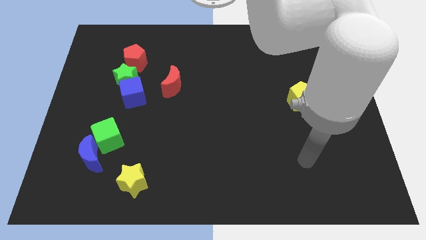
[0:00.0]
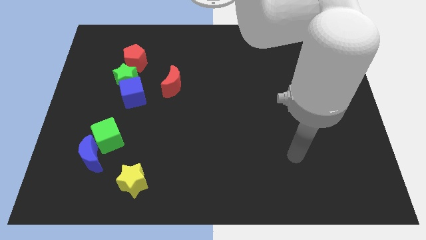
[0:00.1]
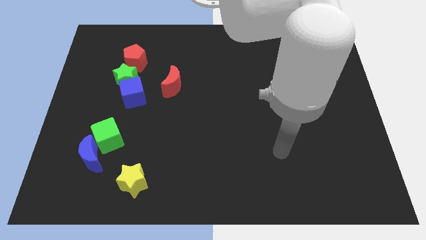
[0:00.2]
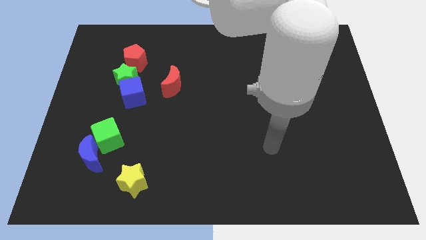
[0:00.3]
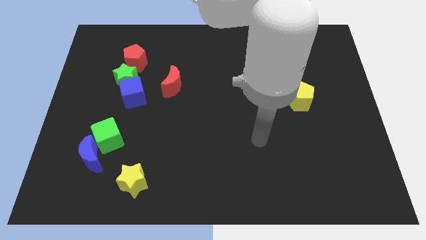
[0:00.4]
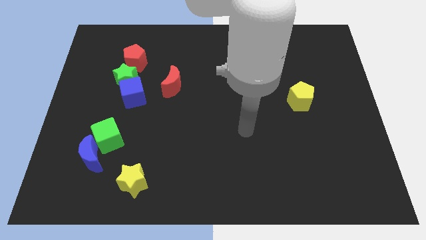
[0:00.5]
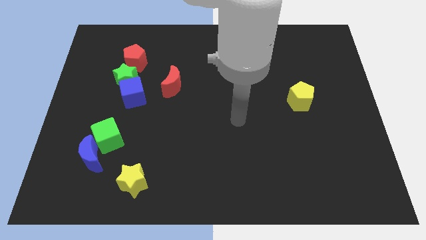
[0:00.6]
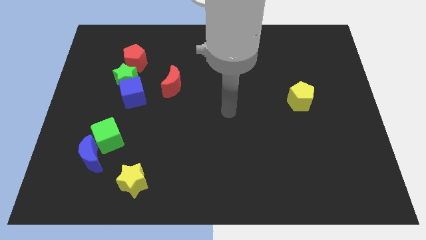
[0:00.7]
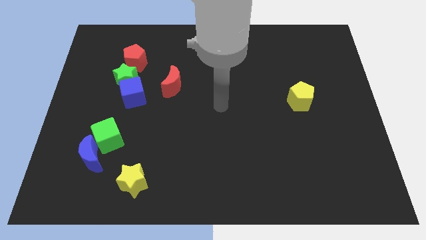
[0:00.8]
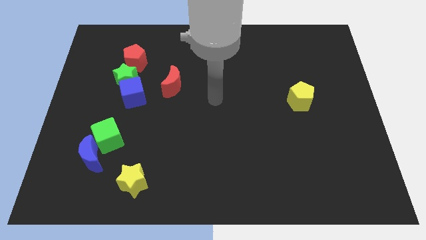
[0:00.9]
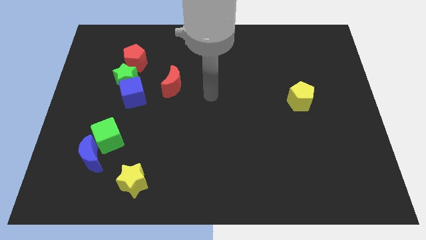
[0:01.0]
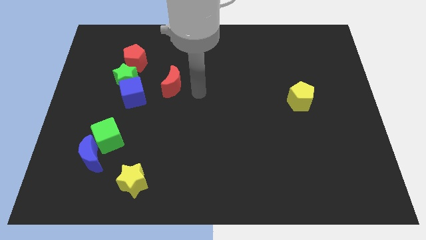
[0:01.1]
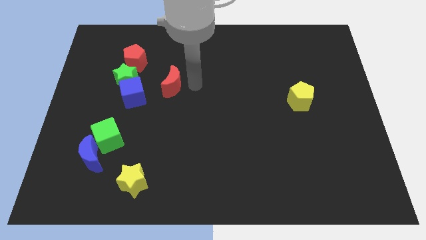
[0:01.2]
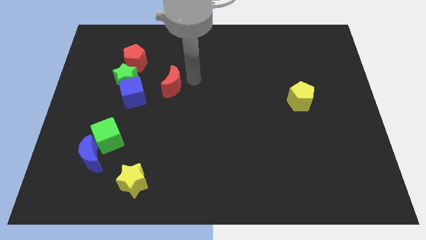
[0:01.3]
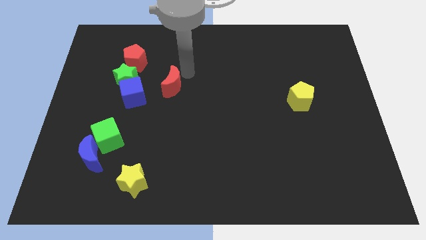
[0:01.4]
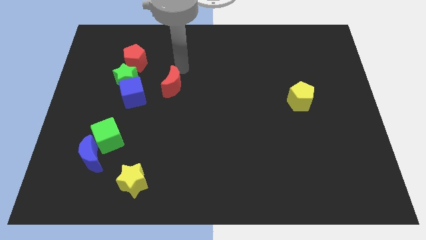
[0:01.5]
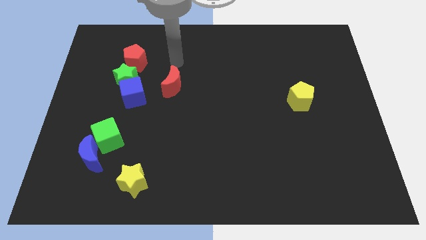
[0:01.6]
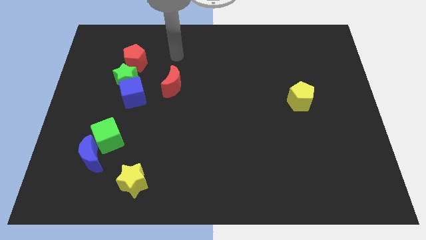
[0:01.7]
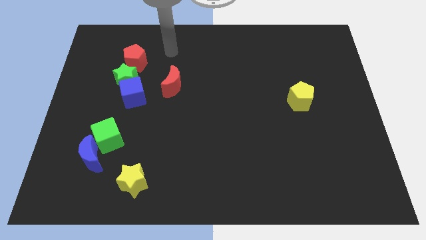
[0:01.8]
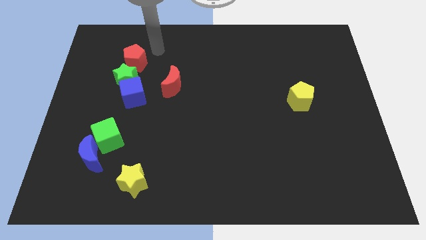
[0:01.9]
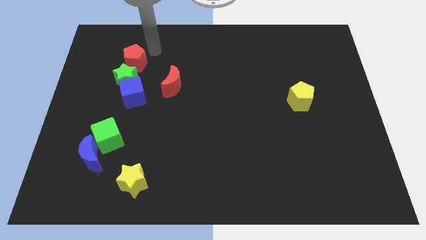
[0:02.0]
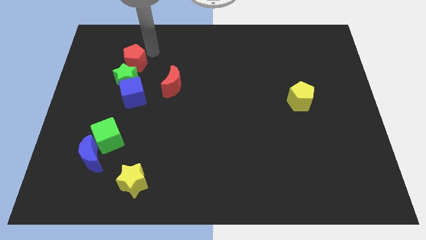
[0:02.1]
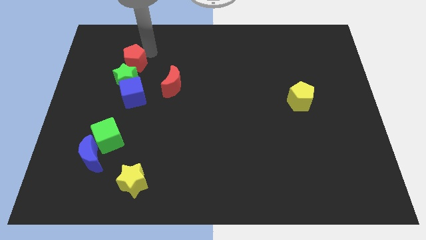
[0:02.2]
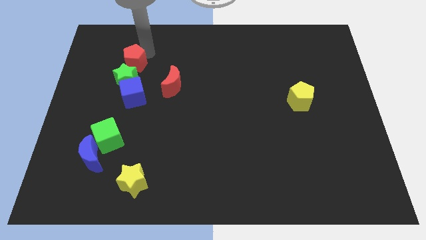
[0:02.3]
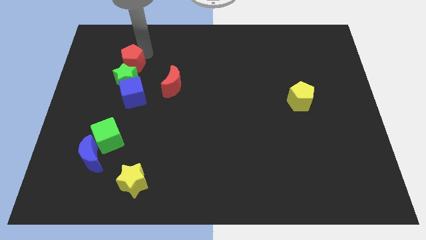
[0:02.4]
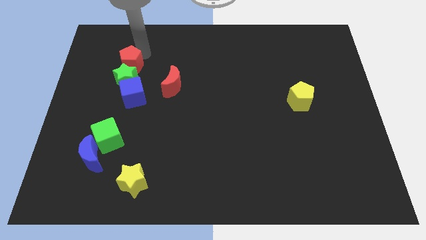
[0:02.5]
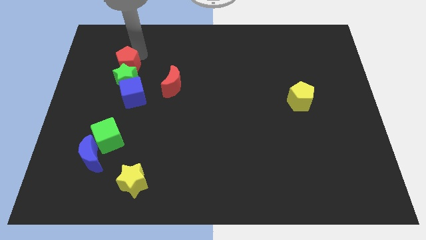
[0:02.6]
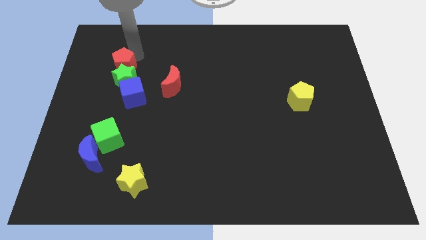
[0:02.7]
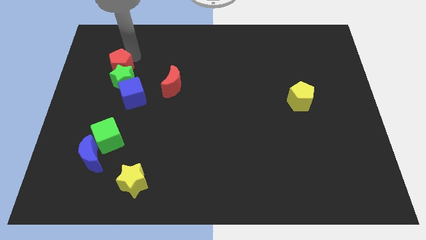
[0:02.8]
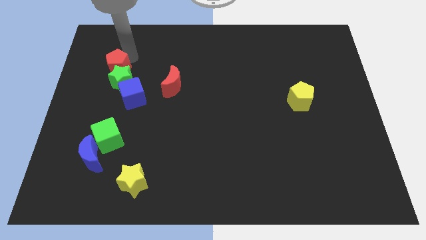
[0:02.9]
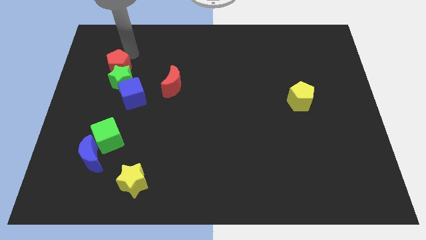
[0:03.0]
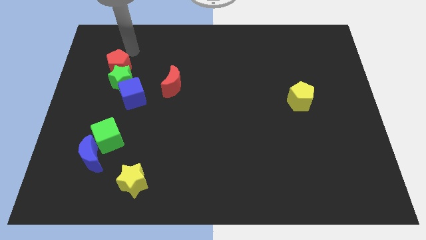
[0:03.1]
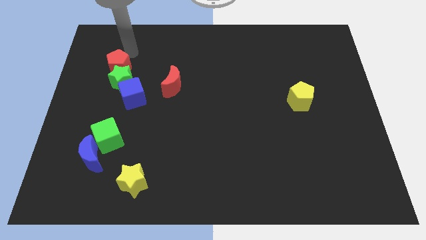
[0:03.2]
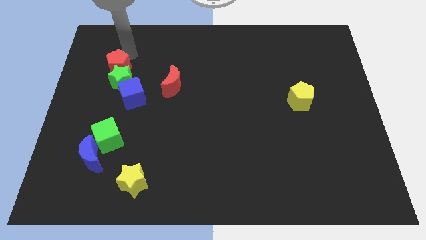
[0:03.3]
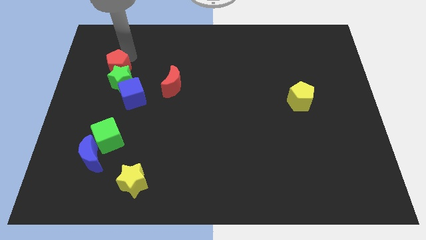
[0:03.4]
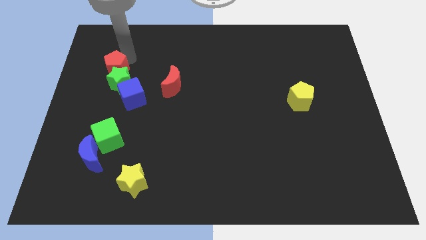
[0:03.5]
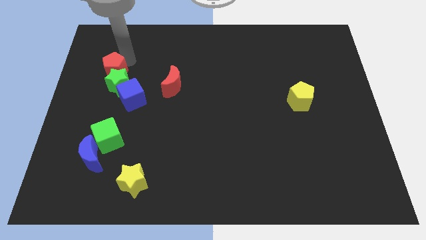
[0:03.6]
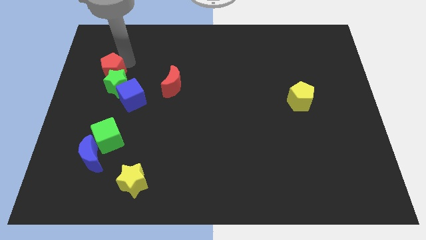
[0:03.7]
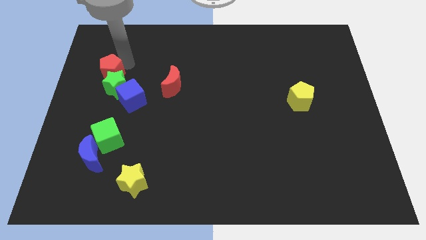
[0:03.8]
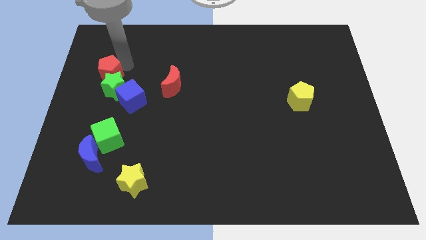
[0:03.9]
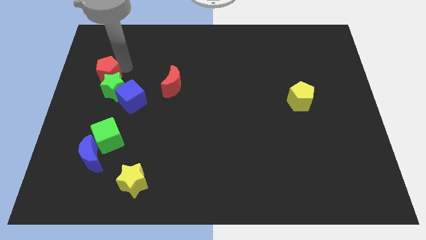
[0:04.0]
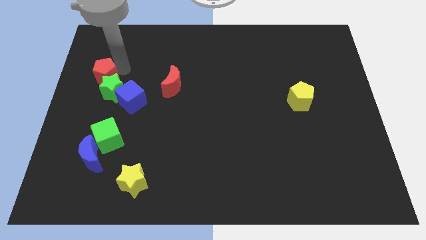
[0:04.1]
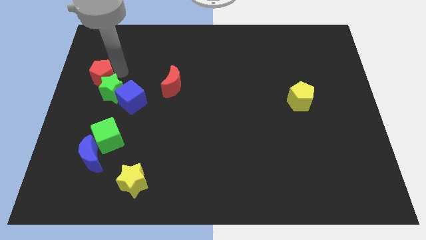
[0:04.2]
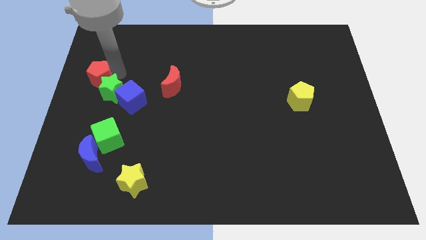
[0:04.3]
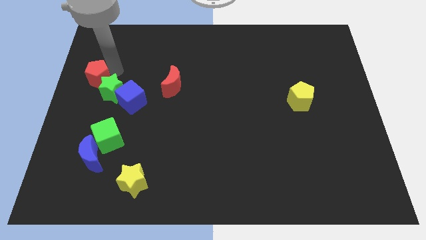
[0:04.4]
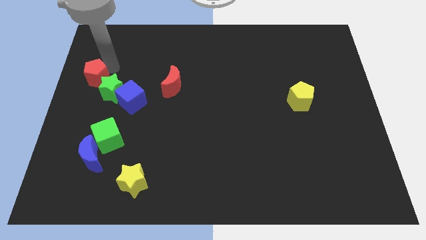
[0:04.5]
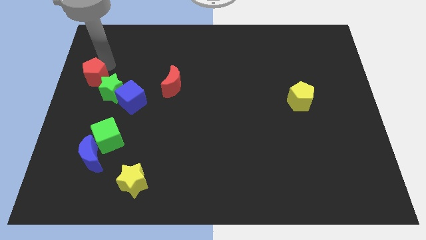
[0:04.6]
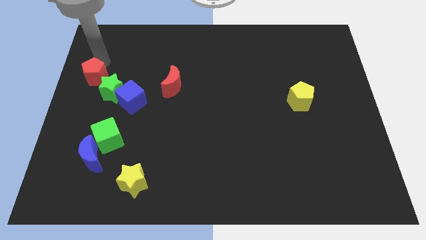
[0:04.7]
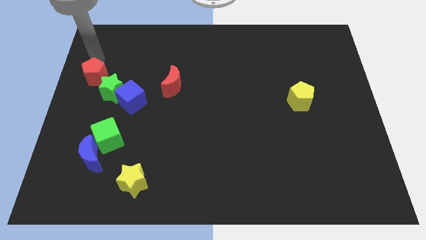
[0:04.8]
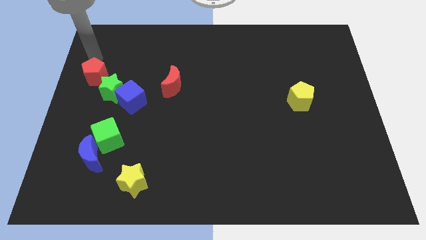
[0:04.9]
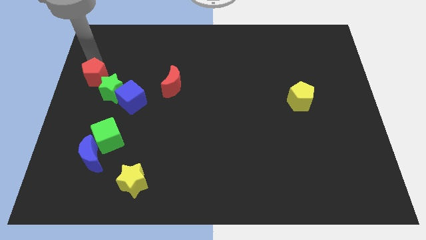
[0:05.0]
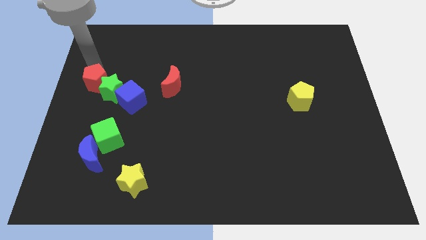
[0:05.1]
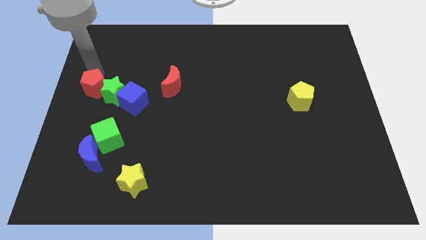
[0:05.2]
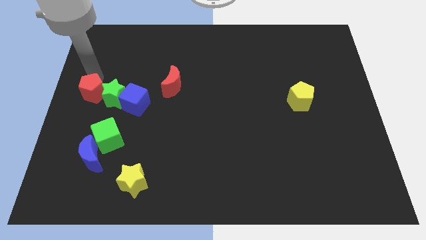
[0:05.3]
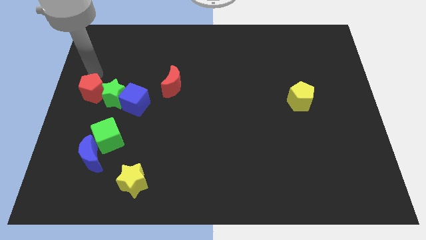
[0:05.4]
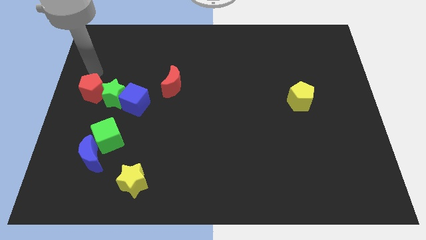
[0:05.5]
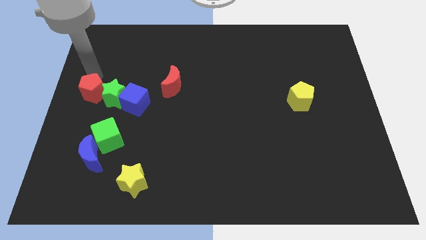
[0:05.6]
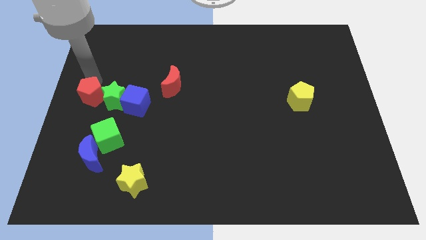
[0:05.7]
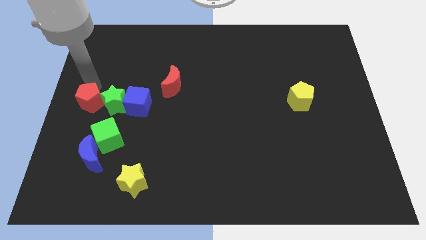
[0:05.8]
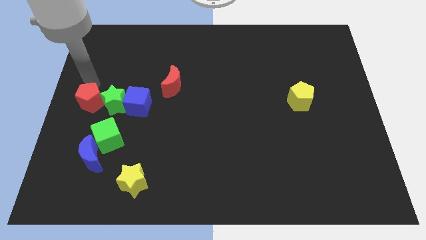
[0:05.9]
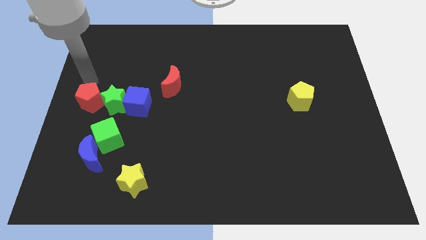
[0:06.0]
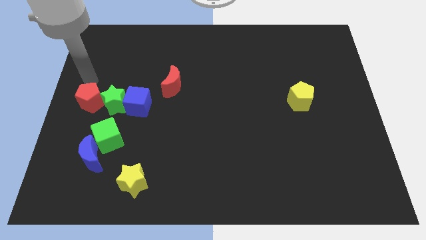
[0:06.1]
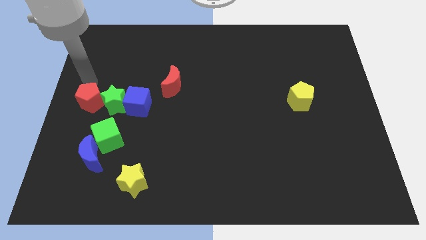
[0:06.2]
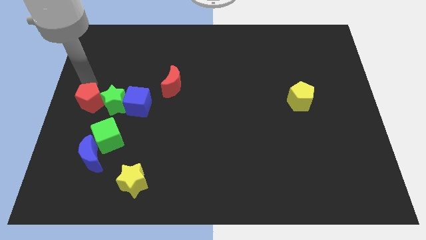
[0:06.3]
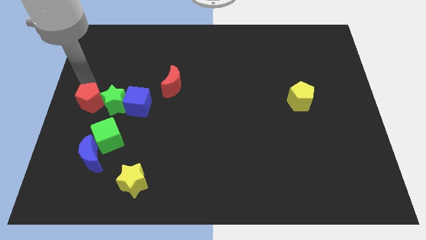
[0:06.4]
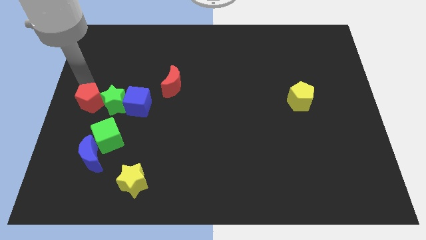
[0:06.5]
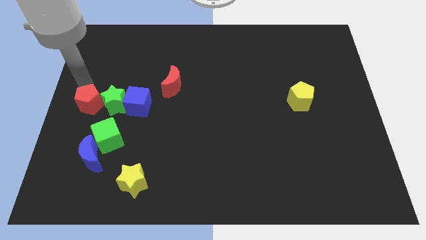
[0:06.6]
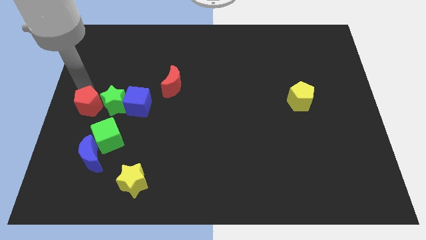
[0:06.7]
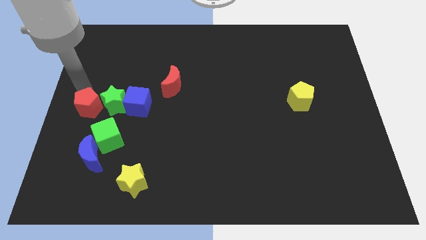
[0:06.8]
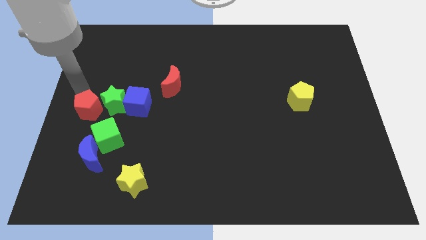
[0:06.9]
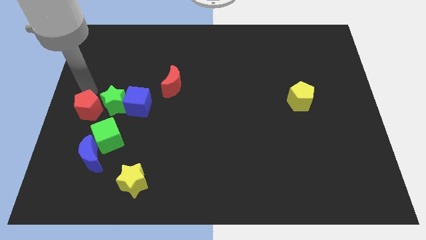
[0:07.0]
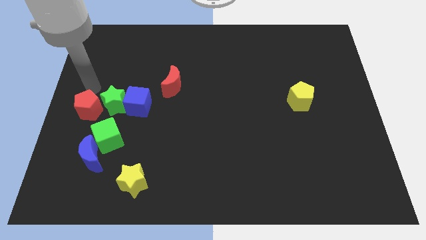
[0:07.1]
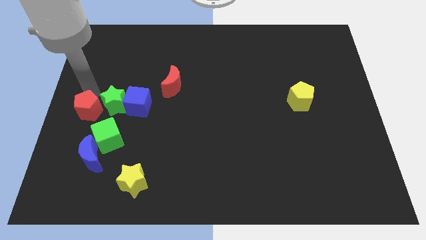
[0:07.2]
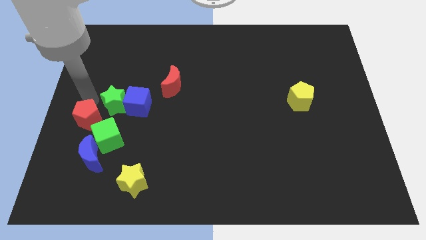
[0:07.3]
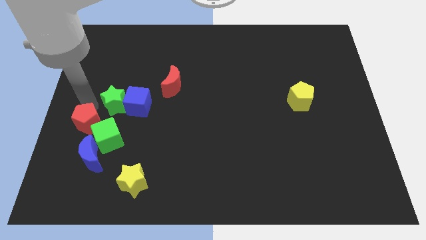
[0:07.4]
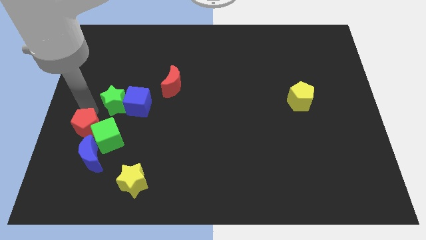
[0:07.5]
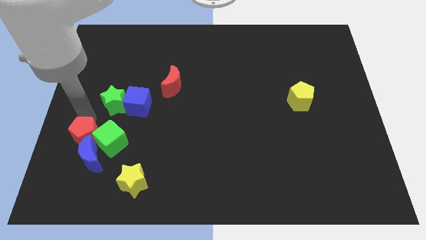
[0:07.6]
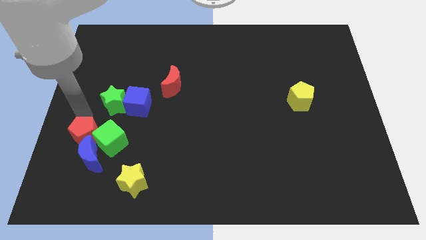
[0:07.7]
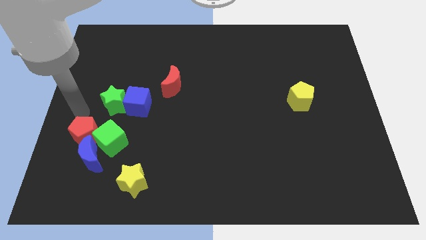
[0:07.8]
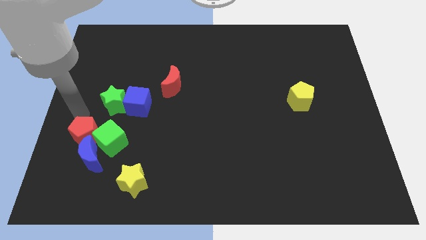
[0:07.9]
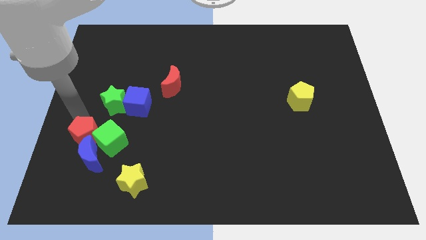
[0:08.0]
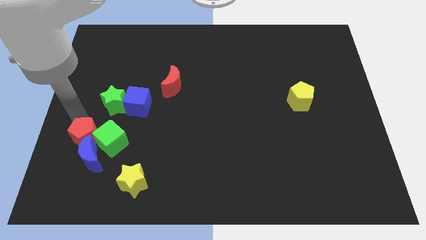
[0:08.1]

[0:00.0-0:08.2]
move the red pentagon next to the blue moon

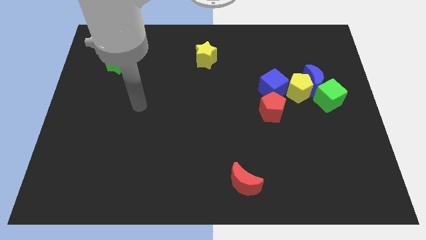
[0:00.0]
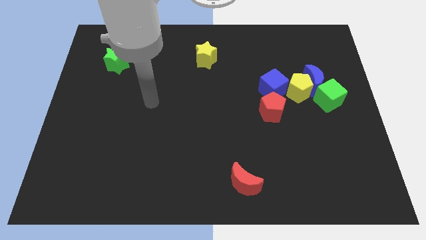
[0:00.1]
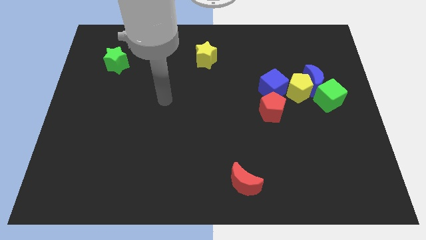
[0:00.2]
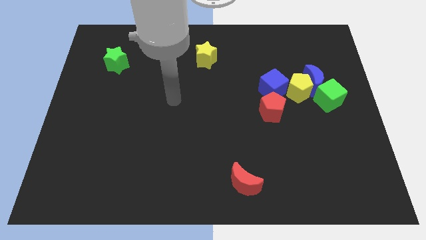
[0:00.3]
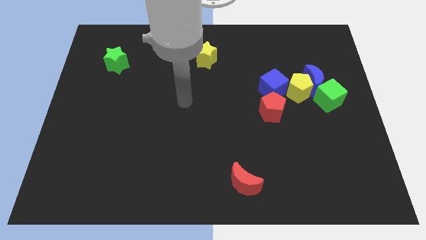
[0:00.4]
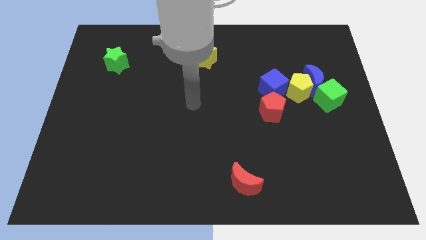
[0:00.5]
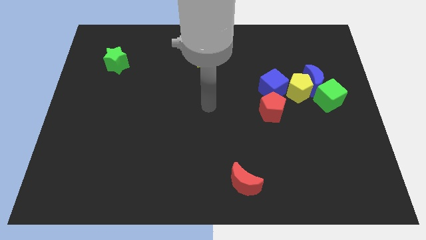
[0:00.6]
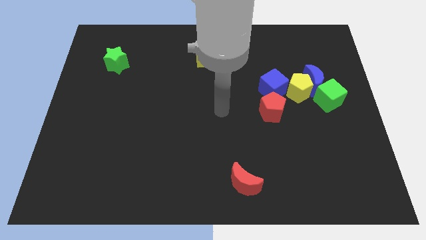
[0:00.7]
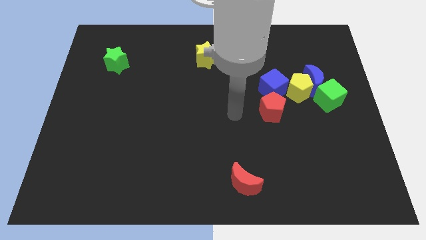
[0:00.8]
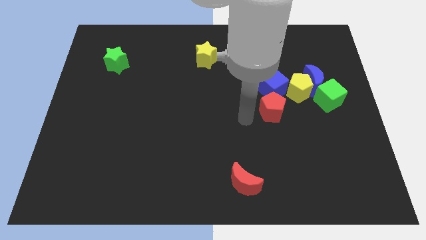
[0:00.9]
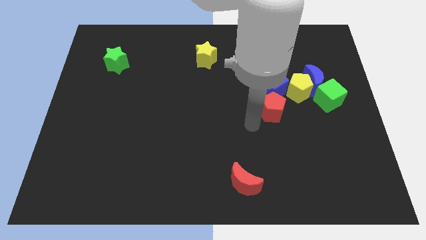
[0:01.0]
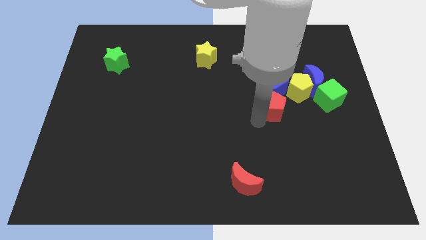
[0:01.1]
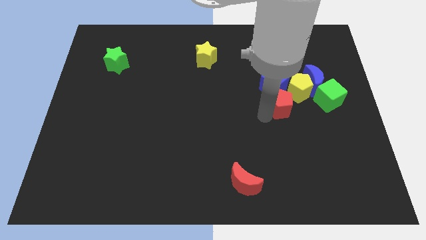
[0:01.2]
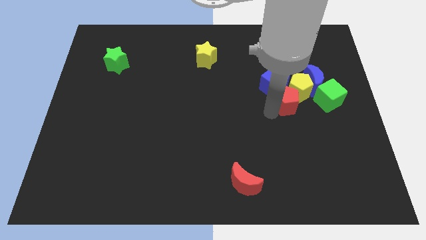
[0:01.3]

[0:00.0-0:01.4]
move the red pentagon to the yellow pentagon
